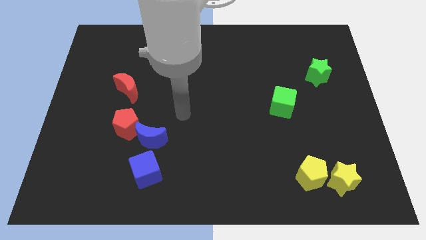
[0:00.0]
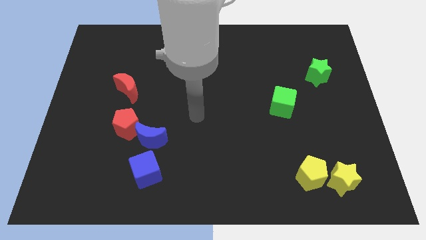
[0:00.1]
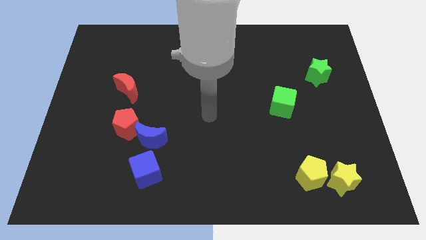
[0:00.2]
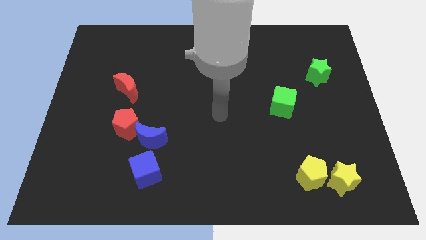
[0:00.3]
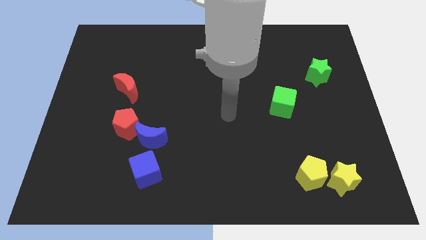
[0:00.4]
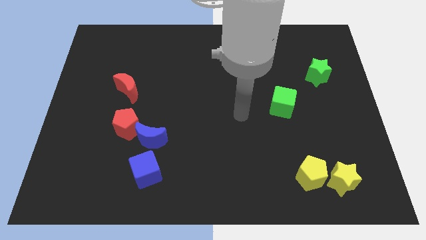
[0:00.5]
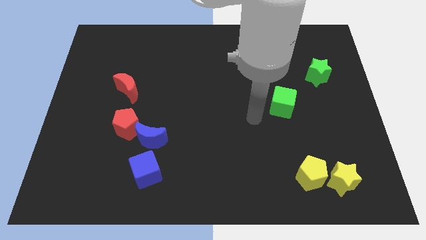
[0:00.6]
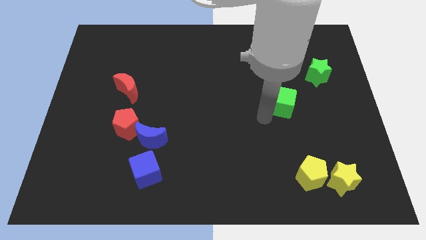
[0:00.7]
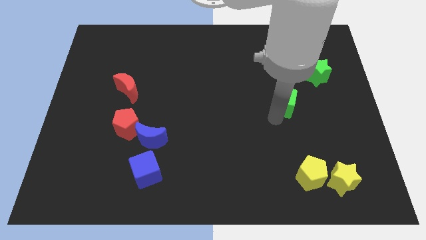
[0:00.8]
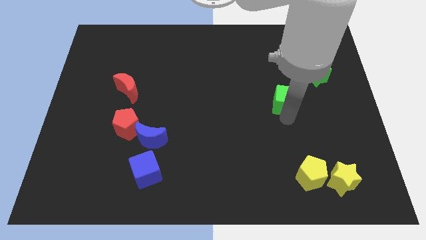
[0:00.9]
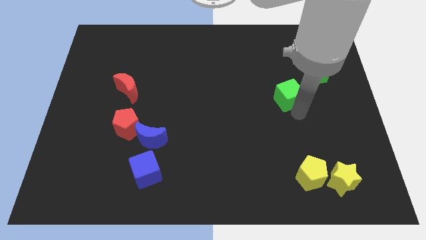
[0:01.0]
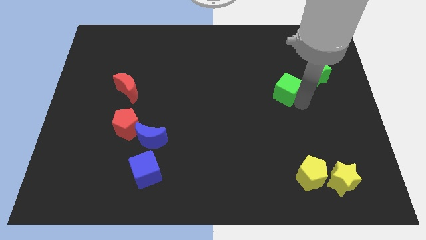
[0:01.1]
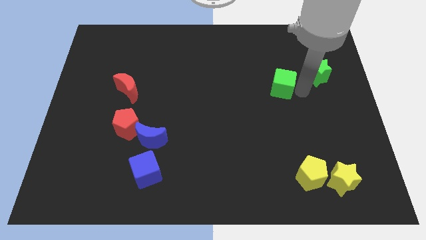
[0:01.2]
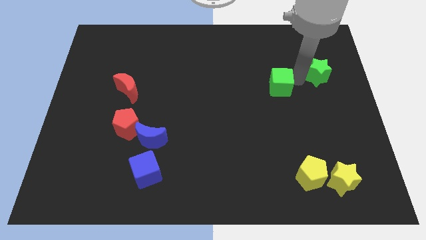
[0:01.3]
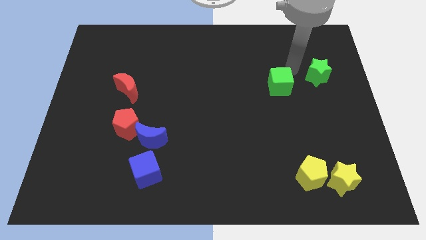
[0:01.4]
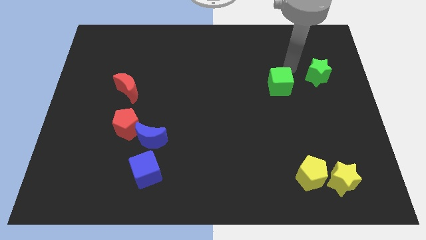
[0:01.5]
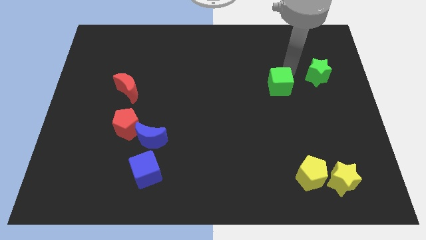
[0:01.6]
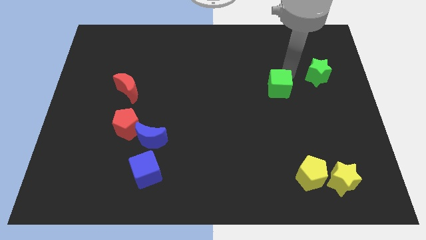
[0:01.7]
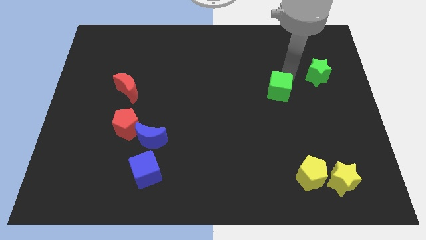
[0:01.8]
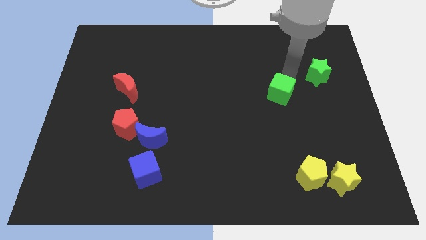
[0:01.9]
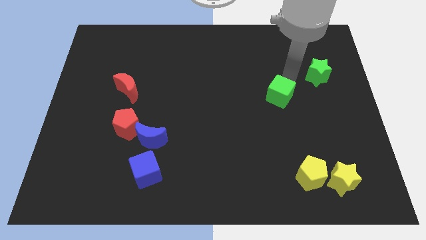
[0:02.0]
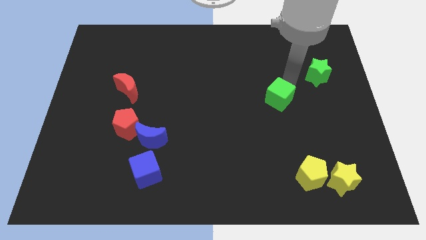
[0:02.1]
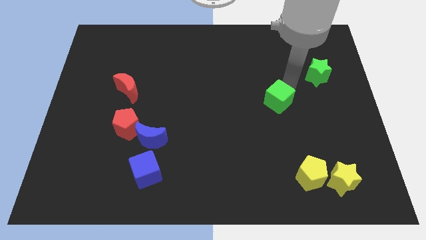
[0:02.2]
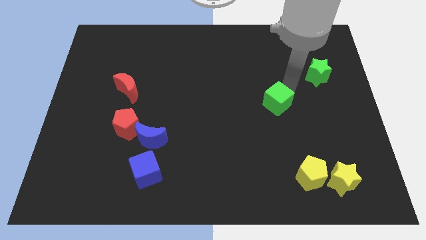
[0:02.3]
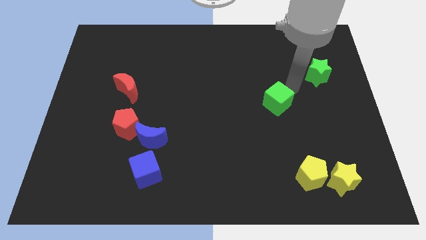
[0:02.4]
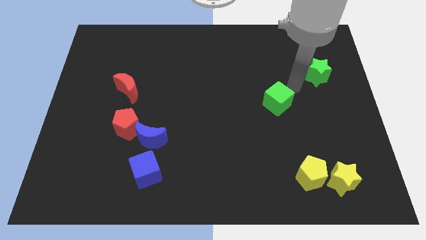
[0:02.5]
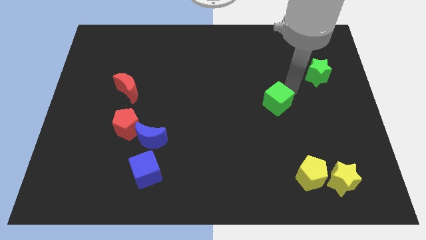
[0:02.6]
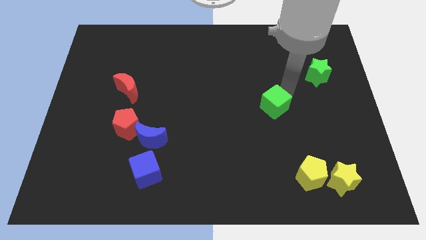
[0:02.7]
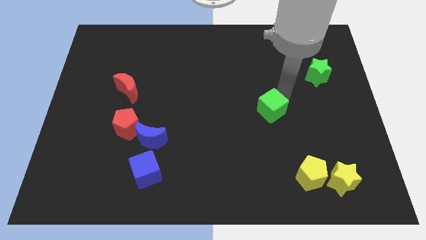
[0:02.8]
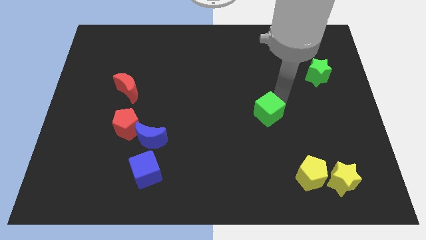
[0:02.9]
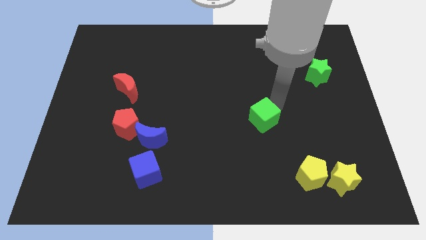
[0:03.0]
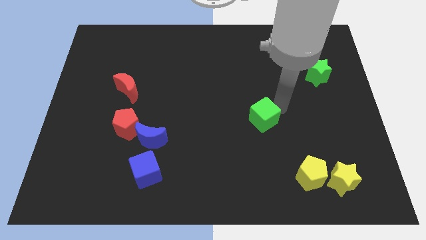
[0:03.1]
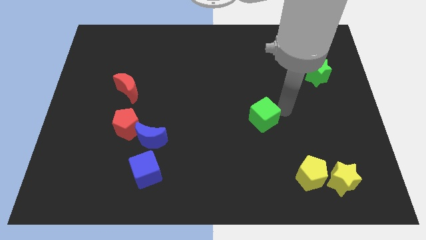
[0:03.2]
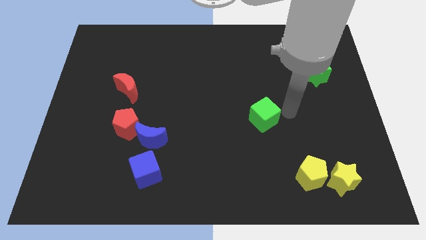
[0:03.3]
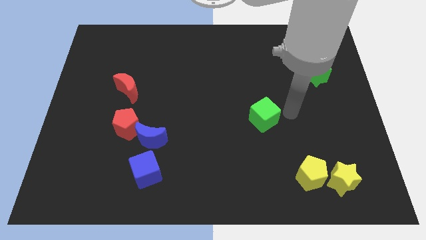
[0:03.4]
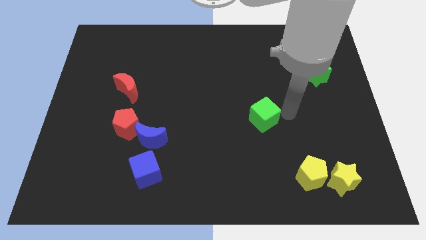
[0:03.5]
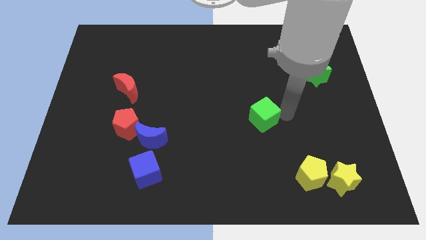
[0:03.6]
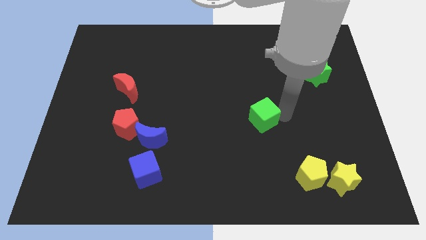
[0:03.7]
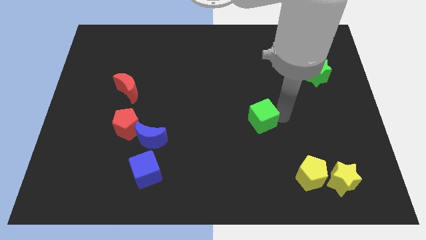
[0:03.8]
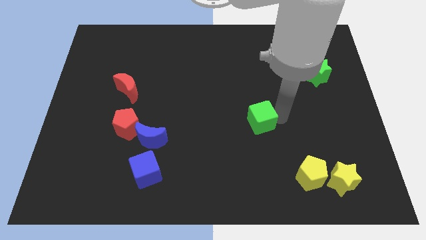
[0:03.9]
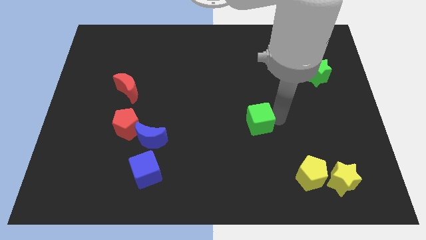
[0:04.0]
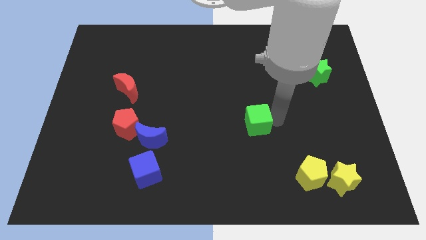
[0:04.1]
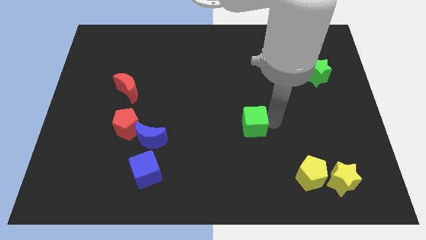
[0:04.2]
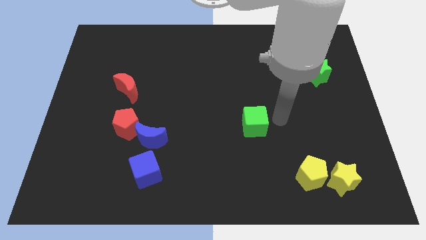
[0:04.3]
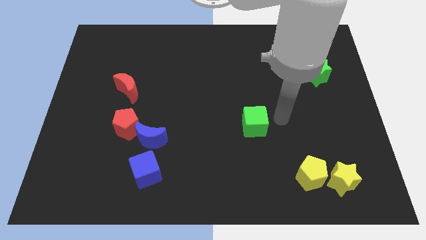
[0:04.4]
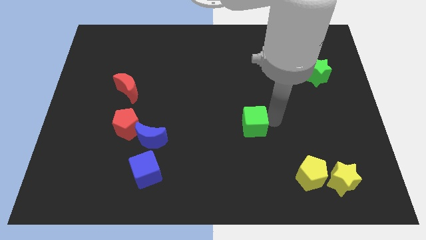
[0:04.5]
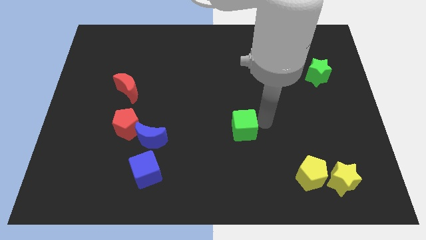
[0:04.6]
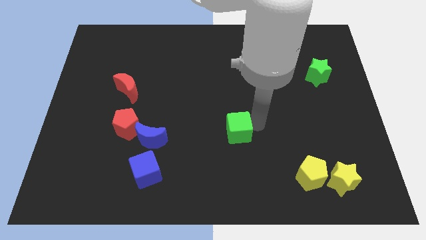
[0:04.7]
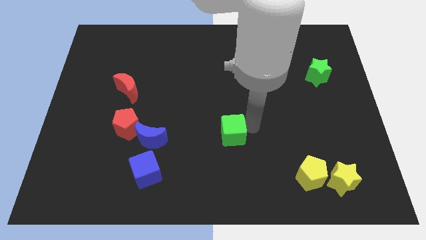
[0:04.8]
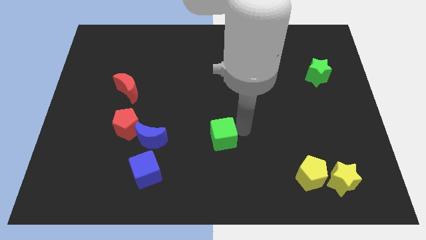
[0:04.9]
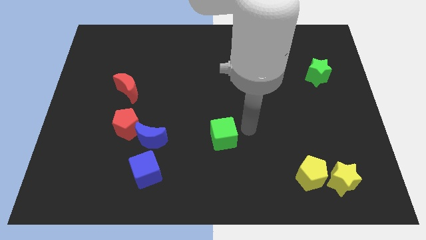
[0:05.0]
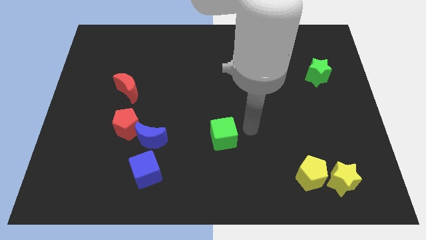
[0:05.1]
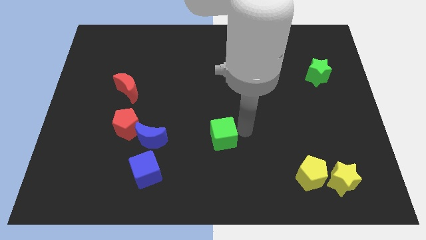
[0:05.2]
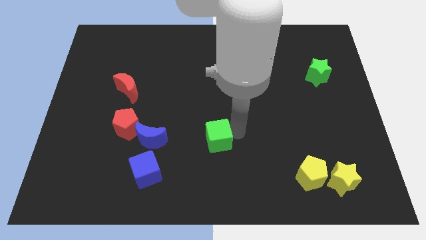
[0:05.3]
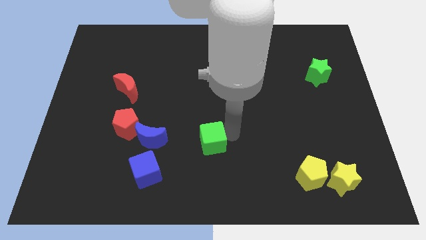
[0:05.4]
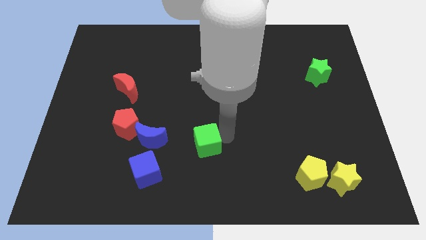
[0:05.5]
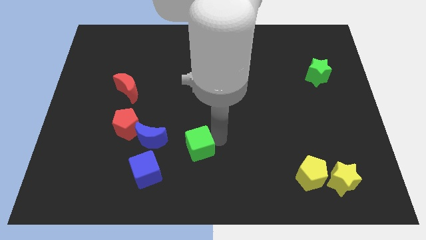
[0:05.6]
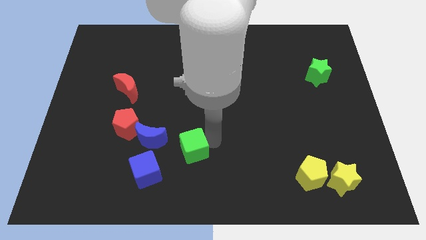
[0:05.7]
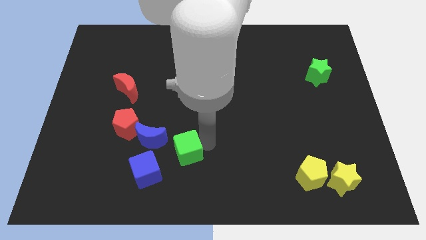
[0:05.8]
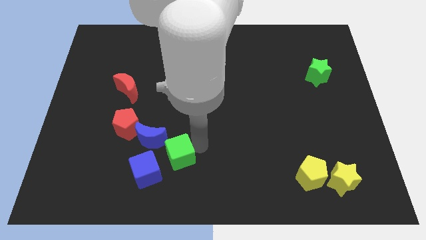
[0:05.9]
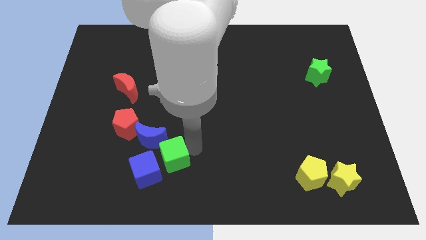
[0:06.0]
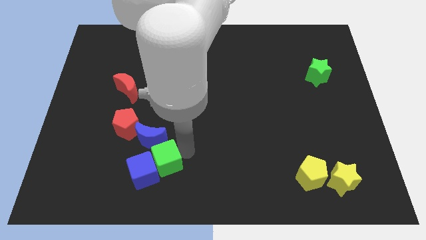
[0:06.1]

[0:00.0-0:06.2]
put the green cube next to the blue cube

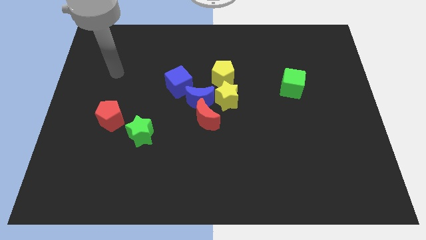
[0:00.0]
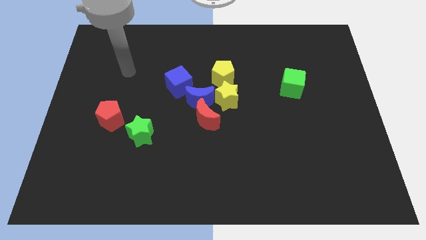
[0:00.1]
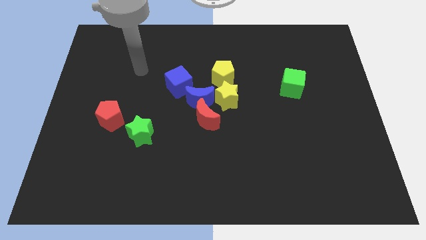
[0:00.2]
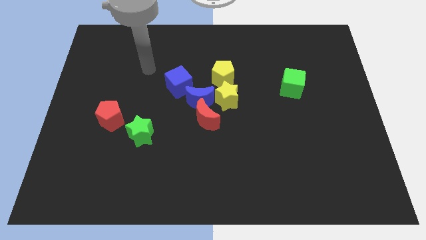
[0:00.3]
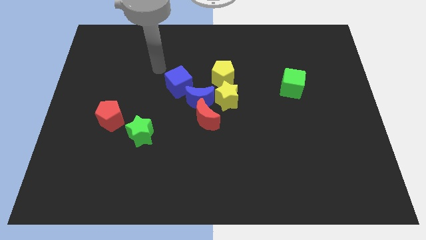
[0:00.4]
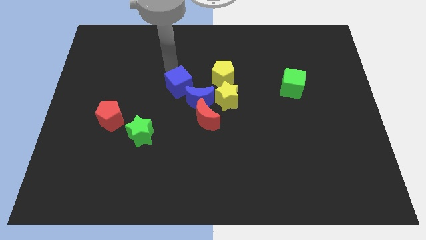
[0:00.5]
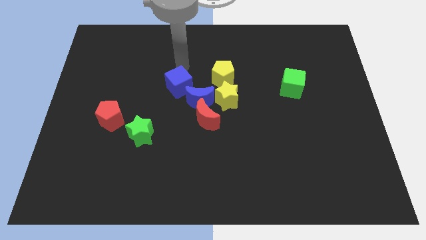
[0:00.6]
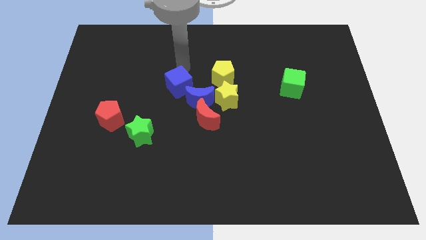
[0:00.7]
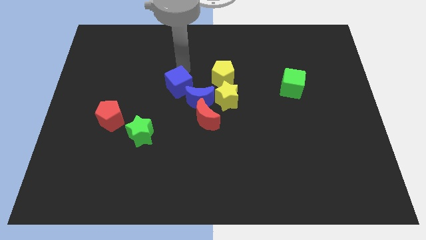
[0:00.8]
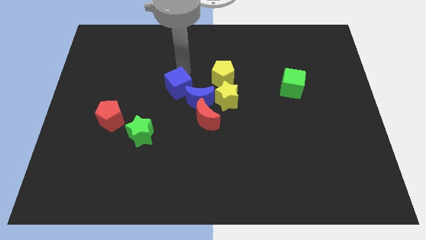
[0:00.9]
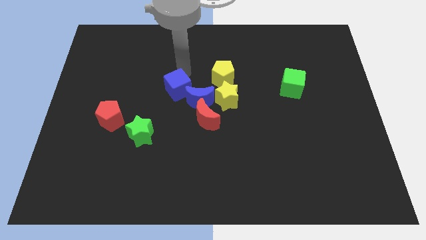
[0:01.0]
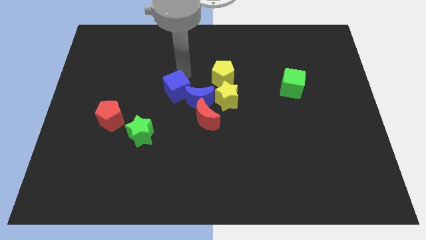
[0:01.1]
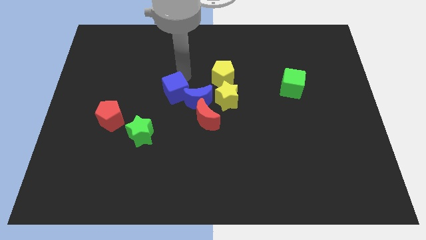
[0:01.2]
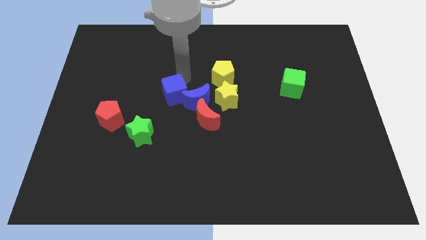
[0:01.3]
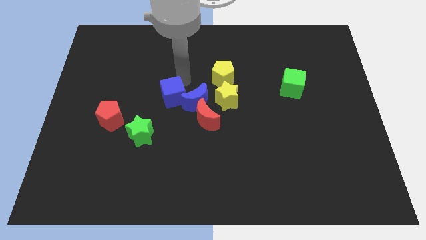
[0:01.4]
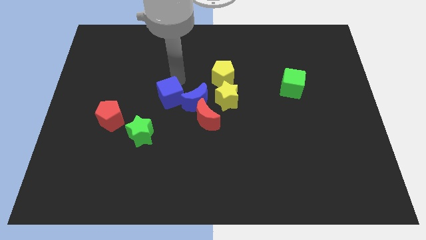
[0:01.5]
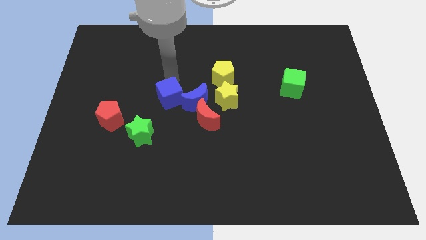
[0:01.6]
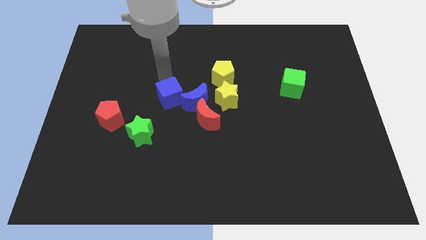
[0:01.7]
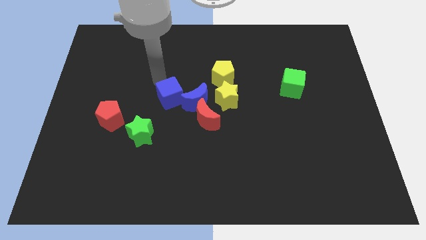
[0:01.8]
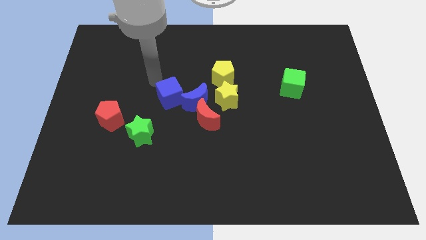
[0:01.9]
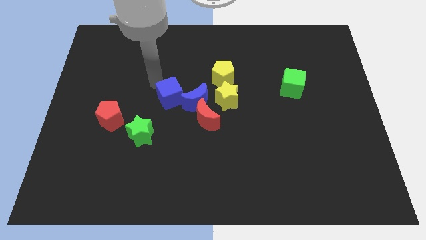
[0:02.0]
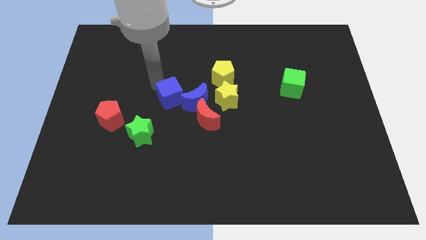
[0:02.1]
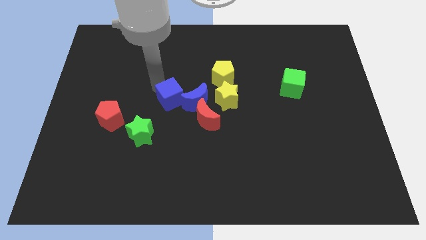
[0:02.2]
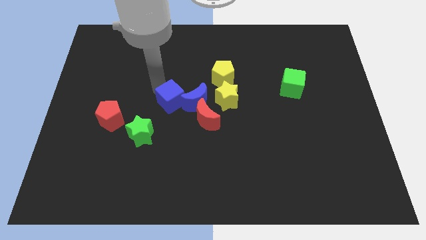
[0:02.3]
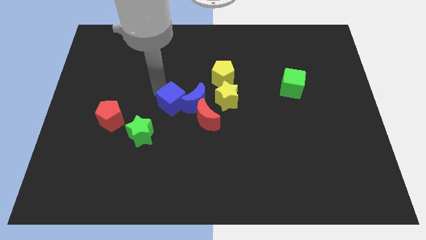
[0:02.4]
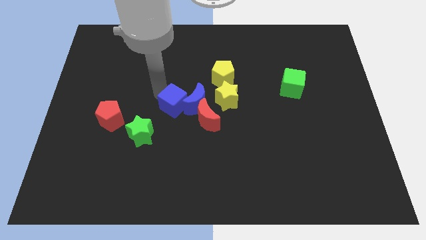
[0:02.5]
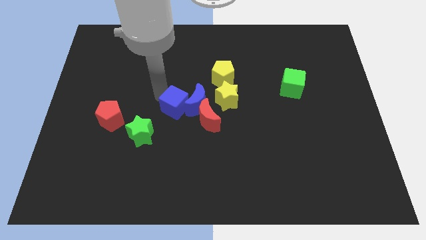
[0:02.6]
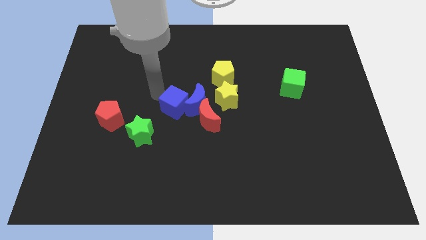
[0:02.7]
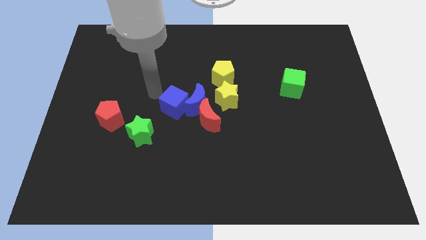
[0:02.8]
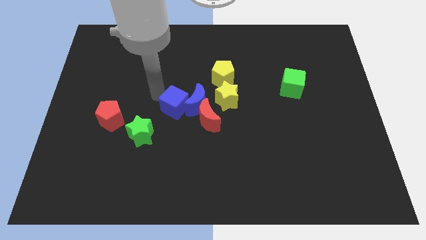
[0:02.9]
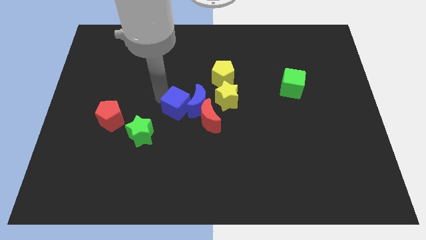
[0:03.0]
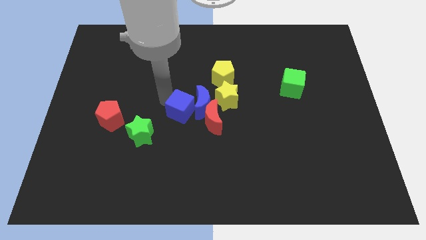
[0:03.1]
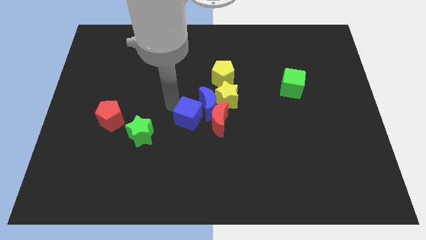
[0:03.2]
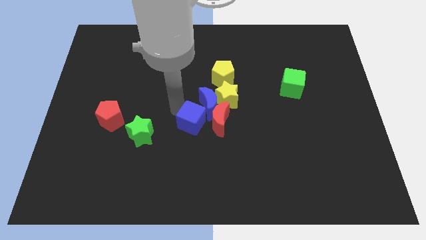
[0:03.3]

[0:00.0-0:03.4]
move the blue cube towards the red moon
